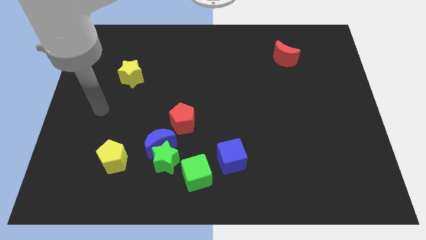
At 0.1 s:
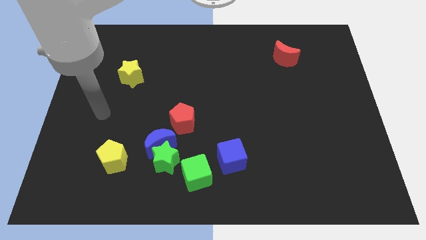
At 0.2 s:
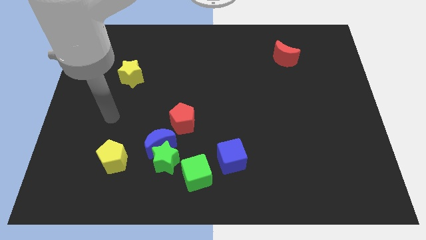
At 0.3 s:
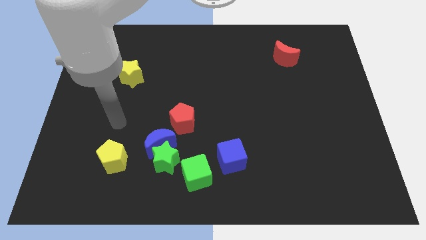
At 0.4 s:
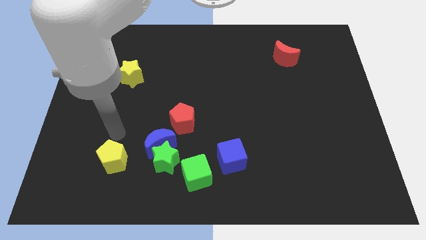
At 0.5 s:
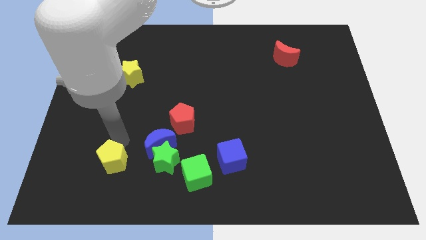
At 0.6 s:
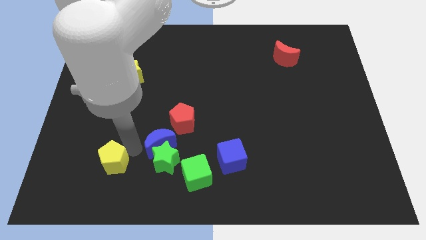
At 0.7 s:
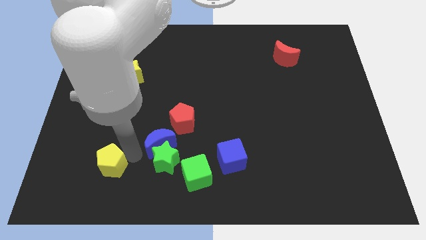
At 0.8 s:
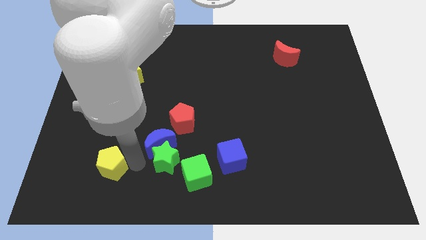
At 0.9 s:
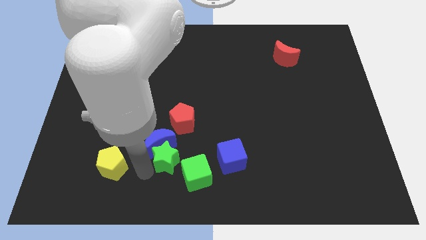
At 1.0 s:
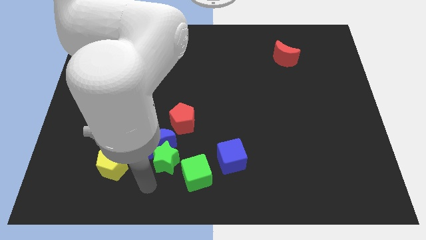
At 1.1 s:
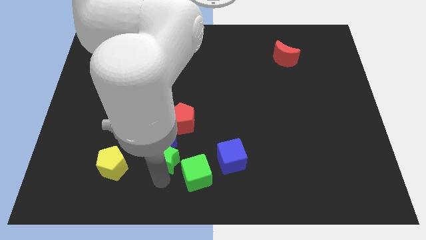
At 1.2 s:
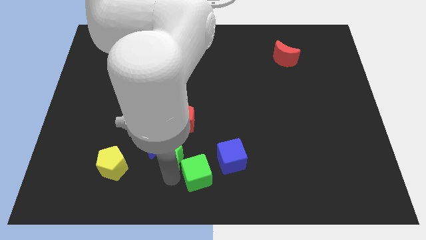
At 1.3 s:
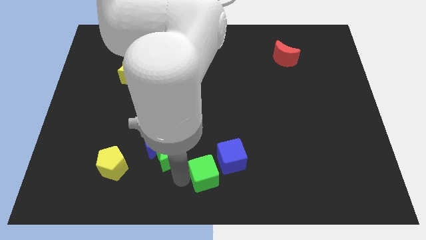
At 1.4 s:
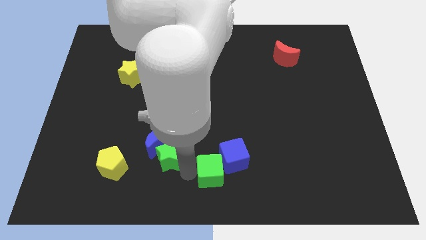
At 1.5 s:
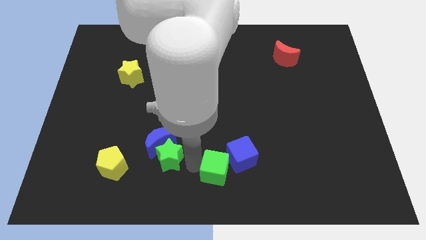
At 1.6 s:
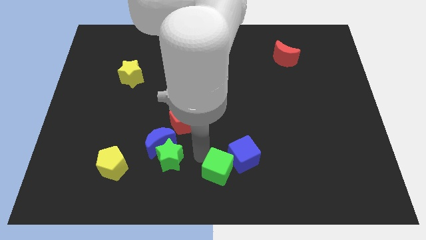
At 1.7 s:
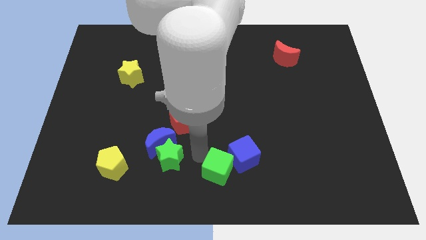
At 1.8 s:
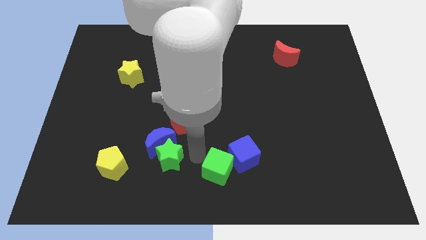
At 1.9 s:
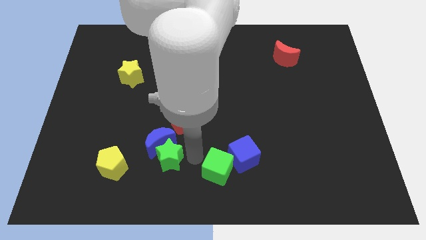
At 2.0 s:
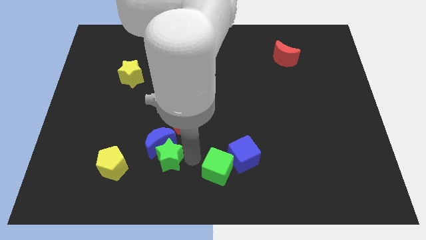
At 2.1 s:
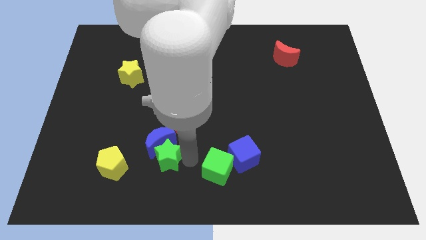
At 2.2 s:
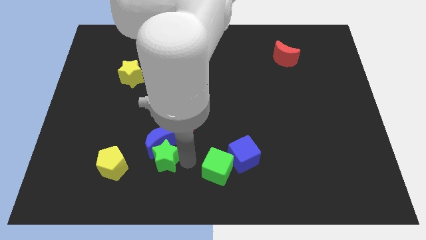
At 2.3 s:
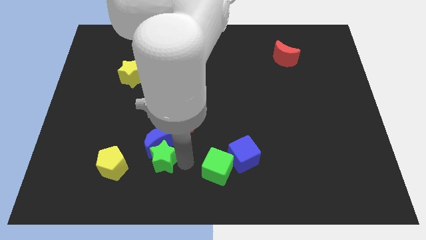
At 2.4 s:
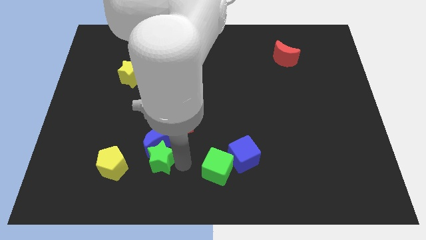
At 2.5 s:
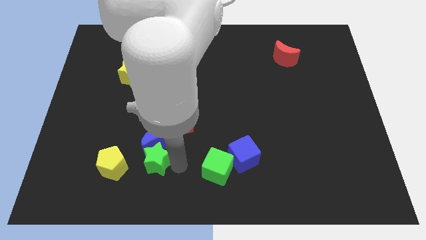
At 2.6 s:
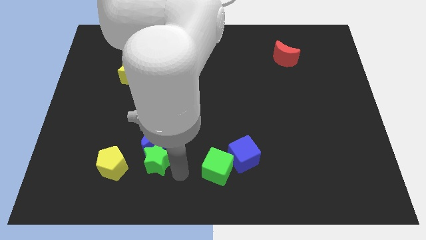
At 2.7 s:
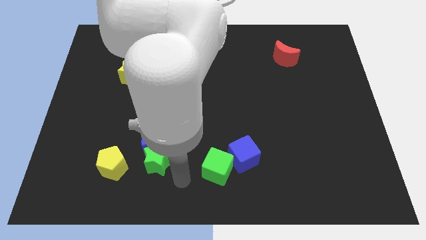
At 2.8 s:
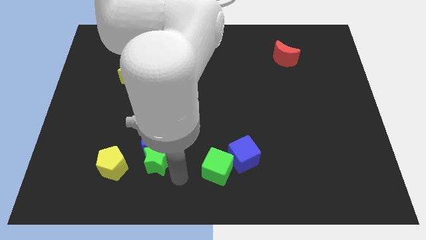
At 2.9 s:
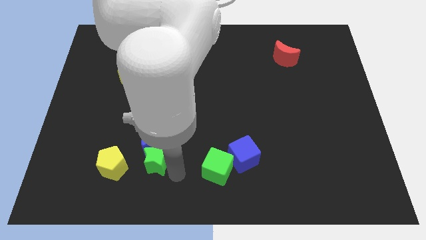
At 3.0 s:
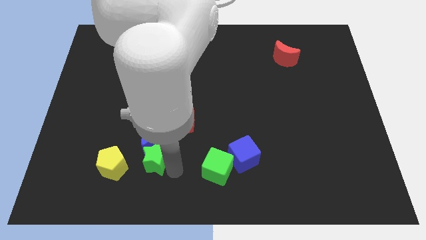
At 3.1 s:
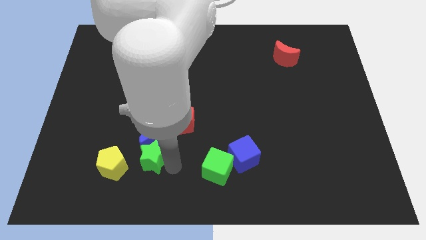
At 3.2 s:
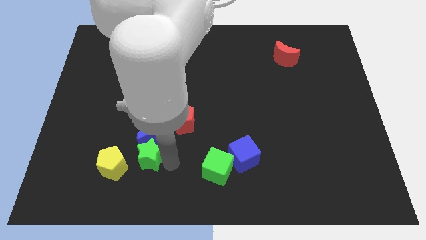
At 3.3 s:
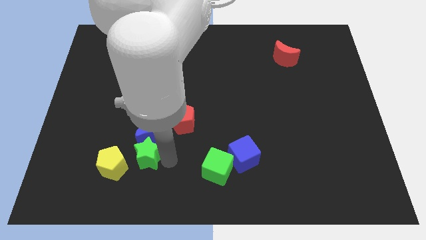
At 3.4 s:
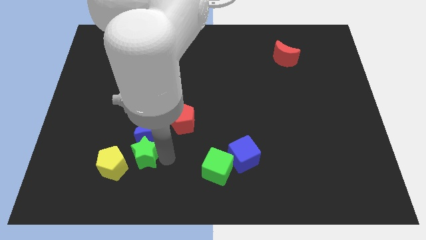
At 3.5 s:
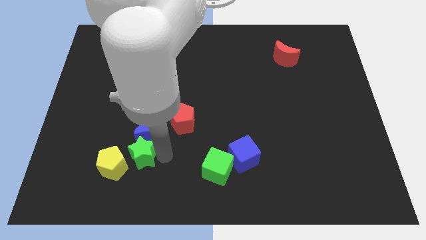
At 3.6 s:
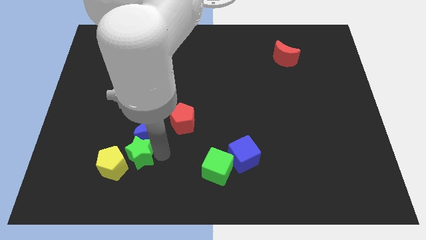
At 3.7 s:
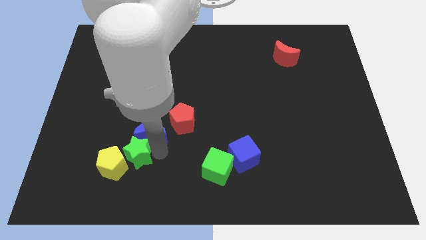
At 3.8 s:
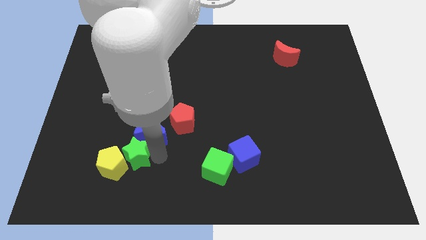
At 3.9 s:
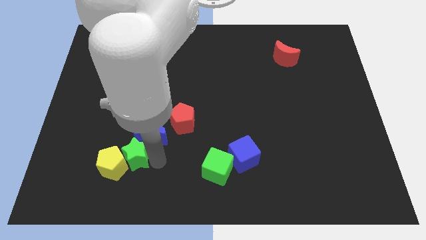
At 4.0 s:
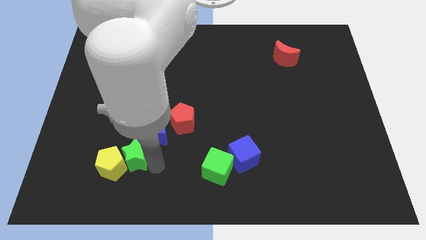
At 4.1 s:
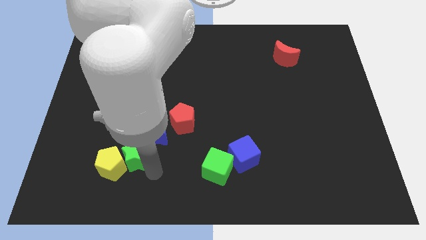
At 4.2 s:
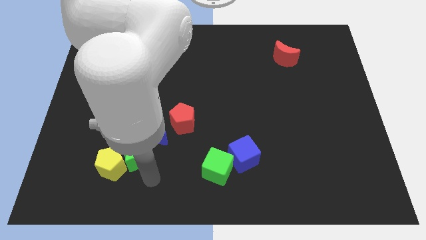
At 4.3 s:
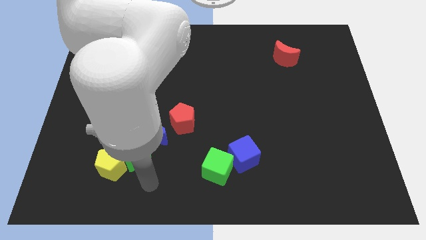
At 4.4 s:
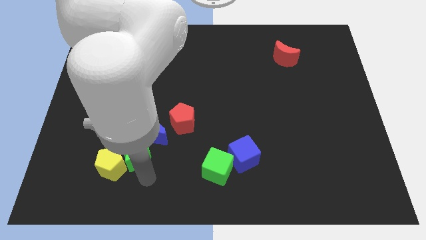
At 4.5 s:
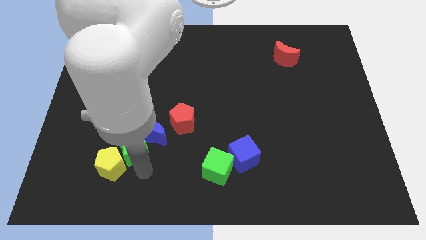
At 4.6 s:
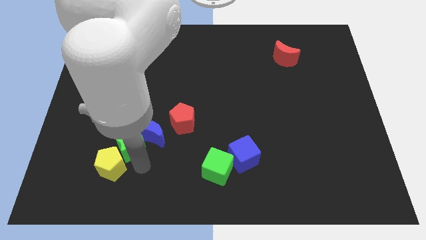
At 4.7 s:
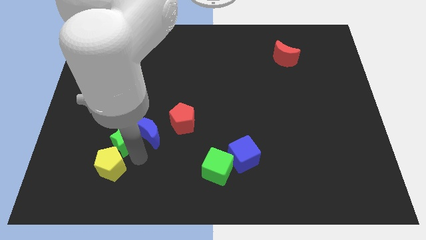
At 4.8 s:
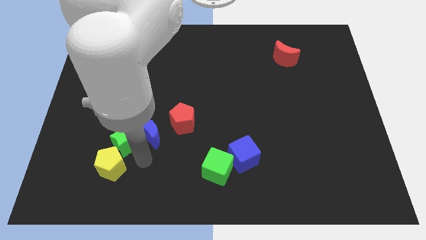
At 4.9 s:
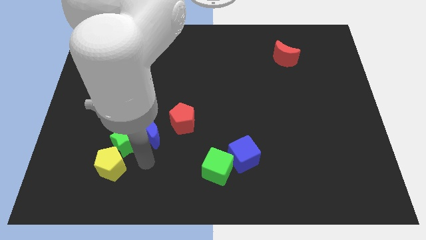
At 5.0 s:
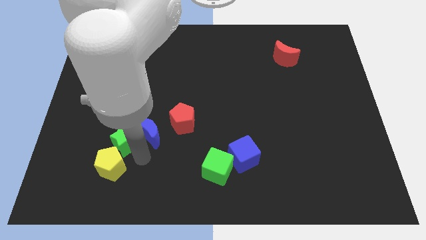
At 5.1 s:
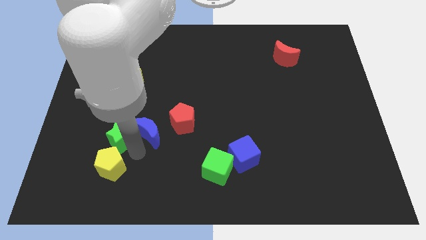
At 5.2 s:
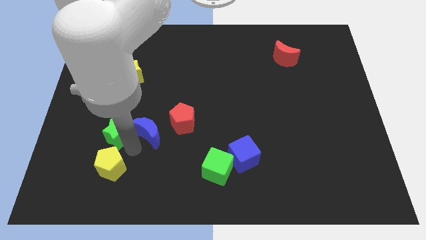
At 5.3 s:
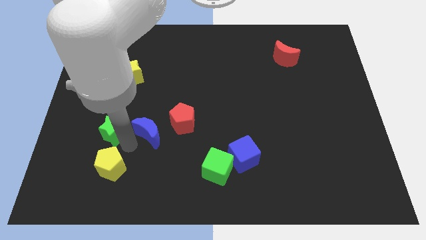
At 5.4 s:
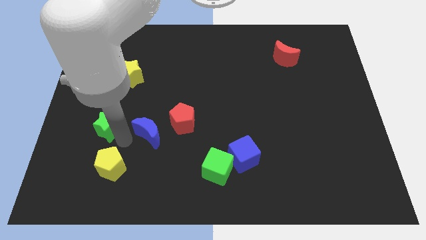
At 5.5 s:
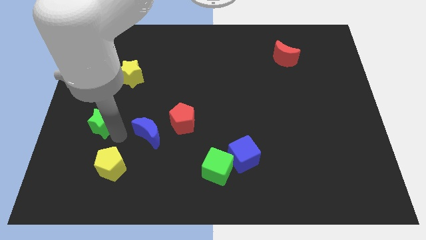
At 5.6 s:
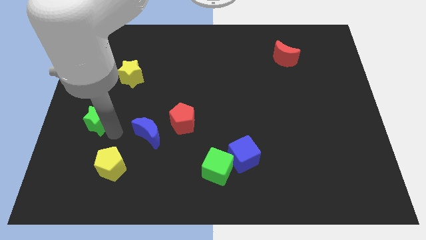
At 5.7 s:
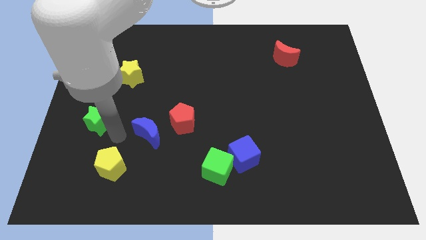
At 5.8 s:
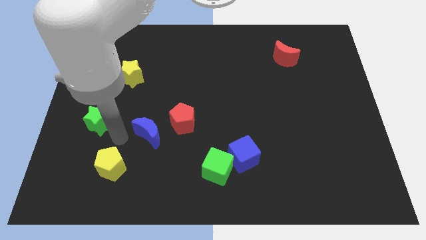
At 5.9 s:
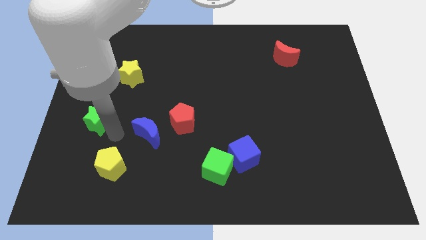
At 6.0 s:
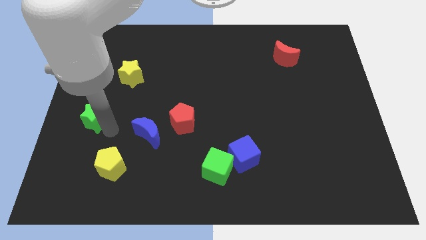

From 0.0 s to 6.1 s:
slide the green star to the center left

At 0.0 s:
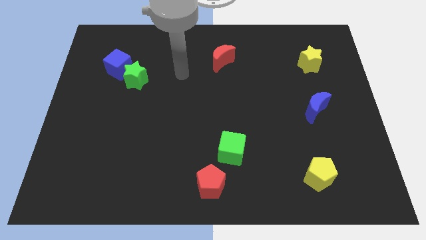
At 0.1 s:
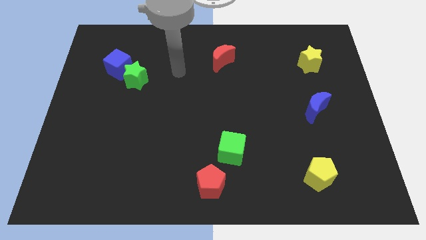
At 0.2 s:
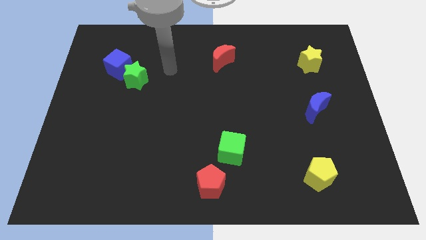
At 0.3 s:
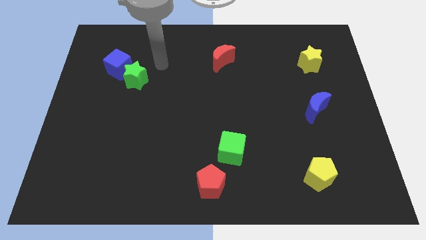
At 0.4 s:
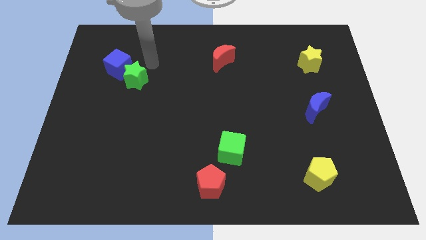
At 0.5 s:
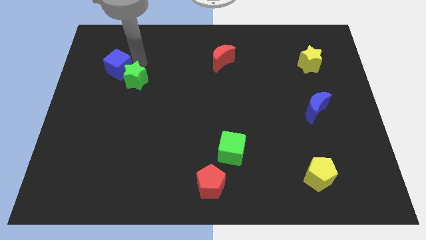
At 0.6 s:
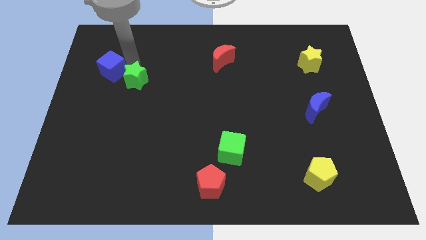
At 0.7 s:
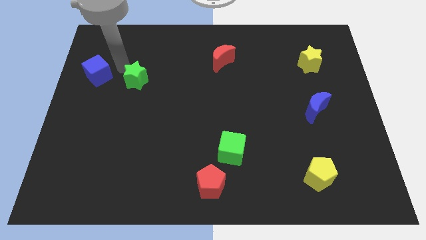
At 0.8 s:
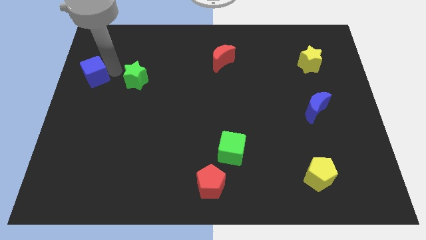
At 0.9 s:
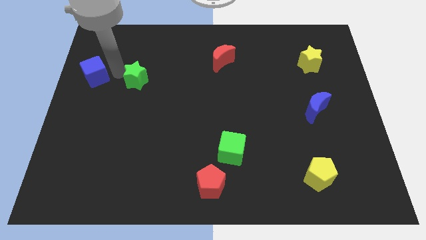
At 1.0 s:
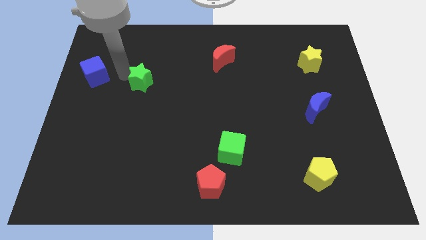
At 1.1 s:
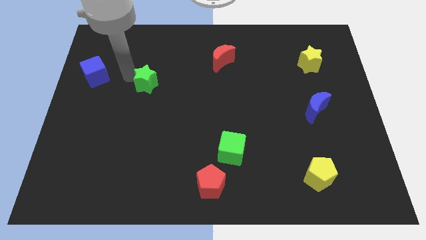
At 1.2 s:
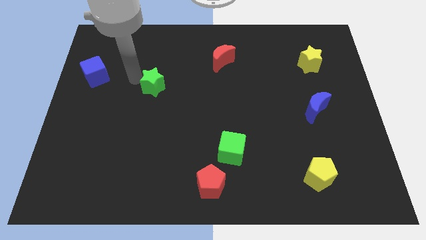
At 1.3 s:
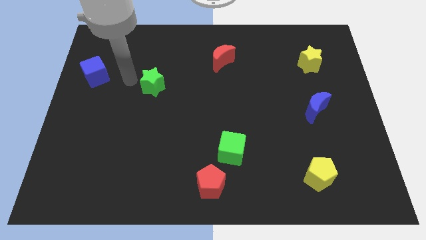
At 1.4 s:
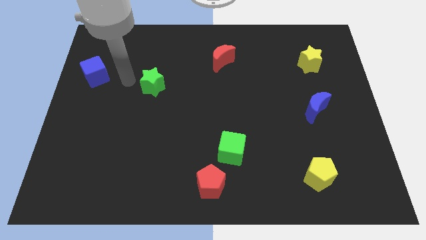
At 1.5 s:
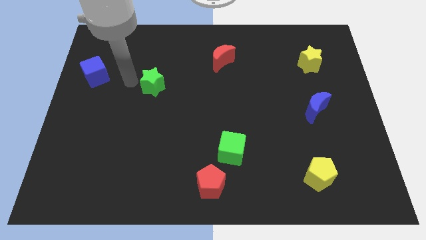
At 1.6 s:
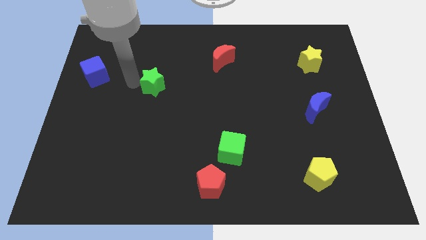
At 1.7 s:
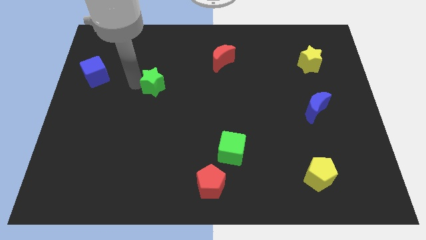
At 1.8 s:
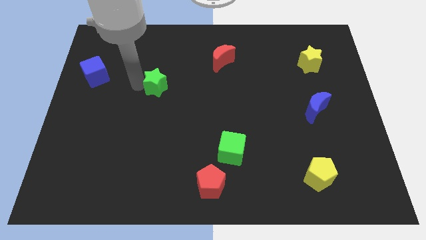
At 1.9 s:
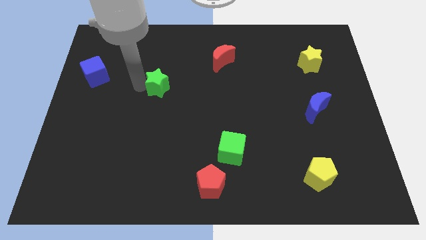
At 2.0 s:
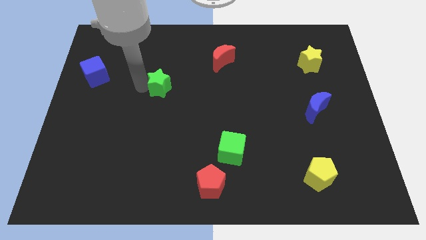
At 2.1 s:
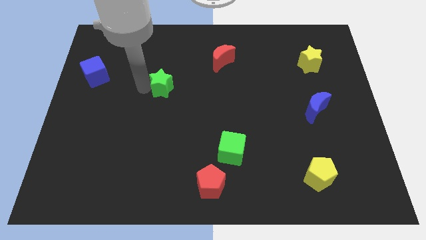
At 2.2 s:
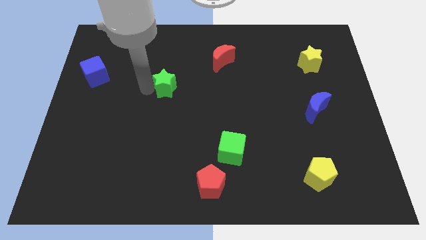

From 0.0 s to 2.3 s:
push the green star to the middle of the board
